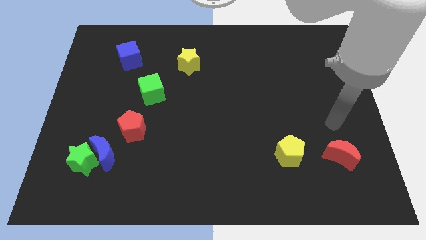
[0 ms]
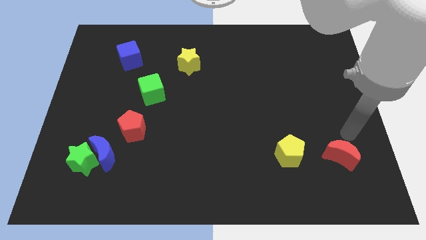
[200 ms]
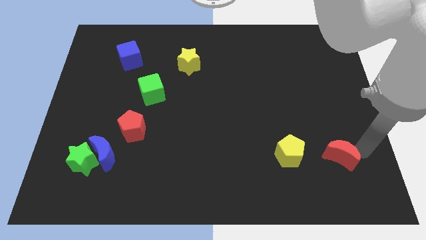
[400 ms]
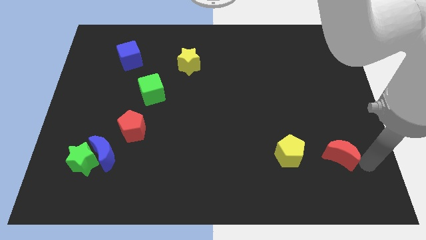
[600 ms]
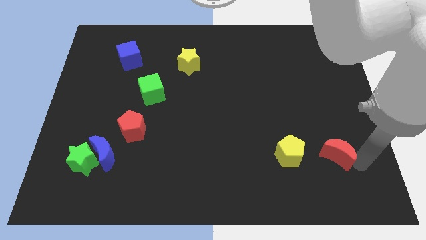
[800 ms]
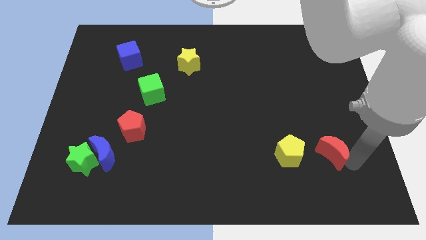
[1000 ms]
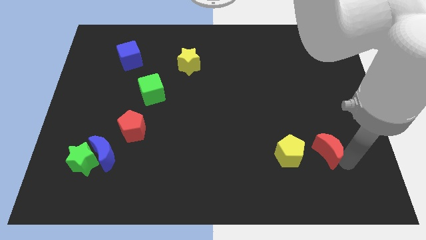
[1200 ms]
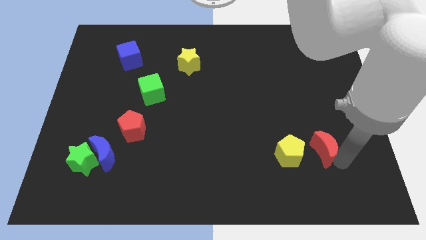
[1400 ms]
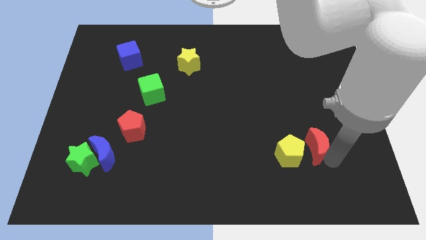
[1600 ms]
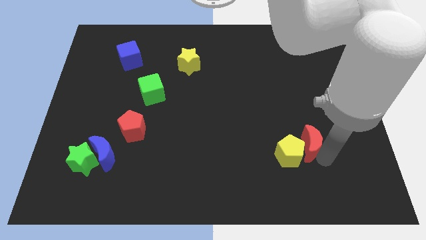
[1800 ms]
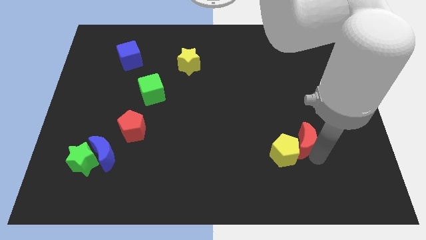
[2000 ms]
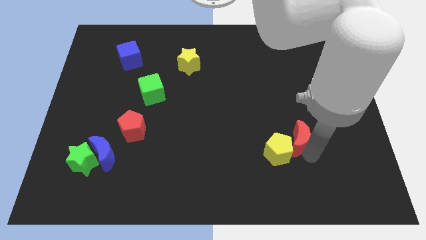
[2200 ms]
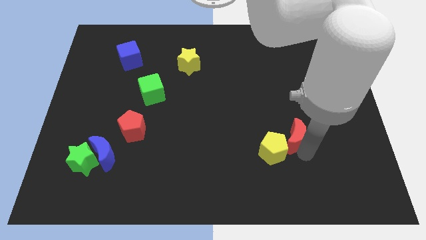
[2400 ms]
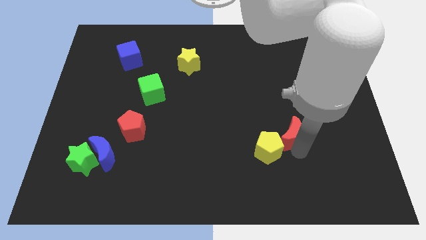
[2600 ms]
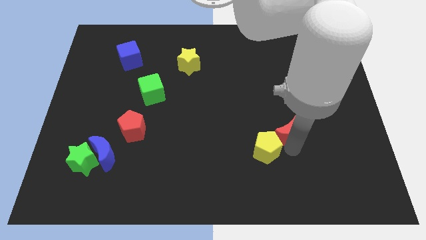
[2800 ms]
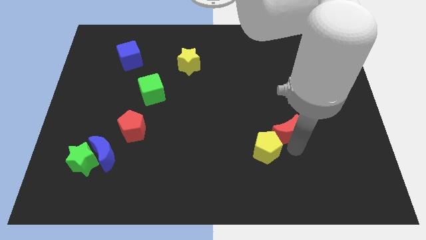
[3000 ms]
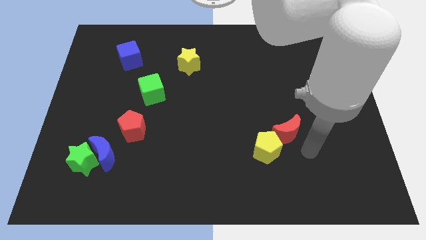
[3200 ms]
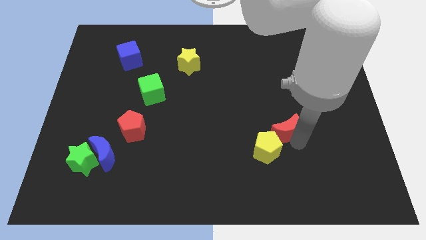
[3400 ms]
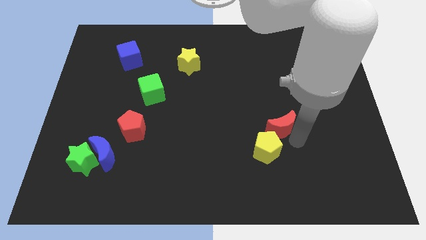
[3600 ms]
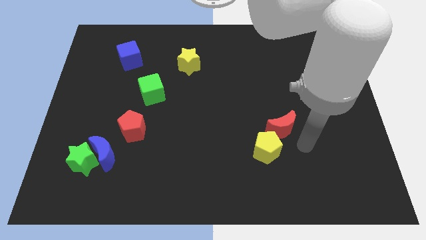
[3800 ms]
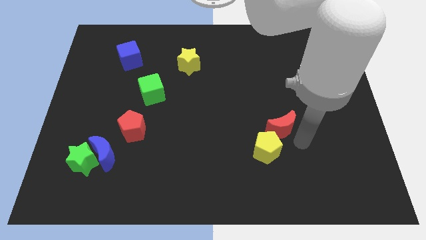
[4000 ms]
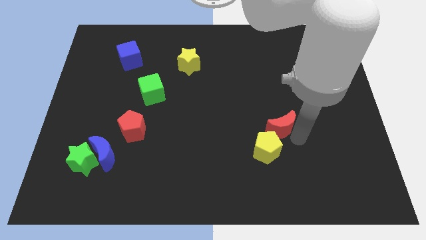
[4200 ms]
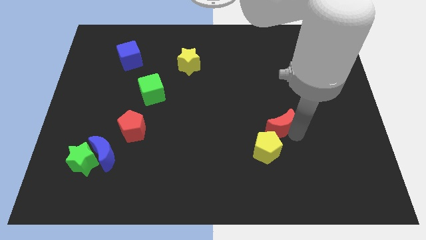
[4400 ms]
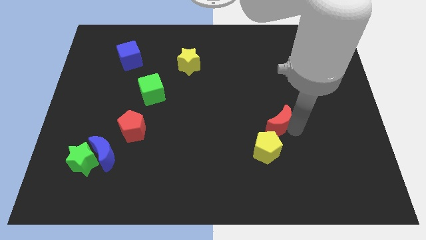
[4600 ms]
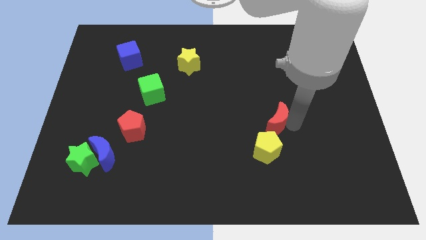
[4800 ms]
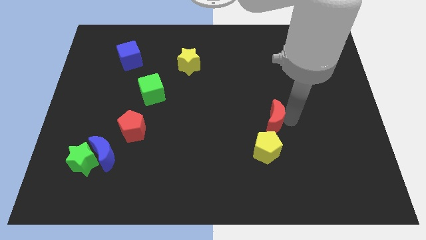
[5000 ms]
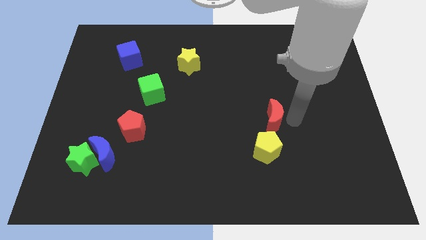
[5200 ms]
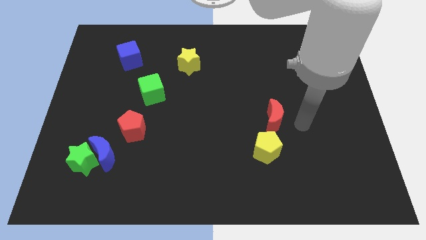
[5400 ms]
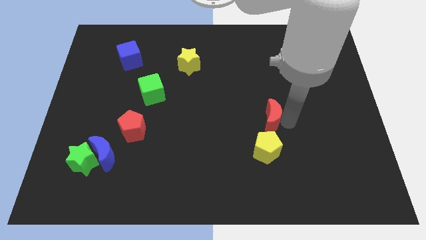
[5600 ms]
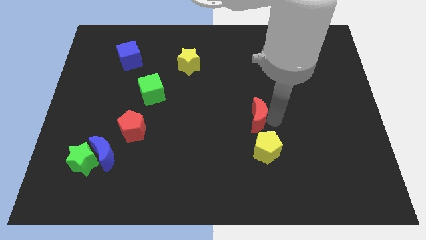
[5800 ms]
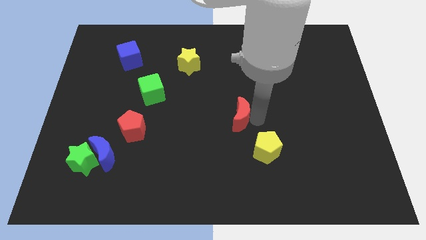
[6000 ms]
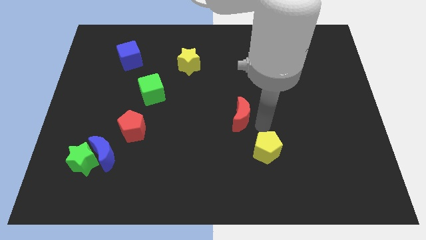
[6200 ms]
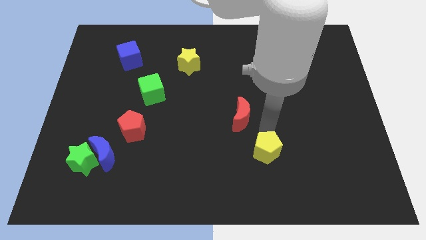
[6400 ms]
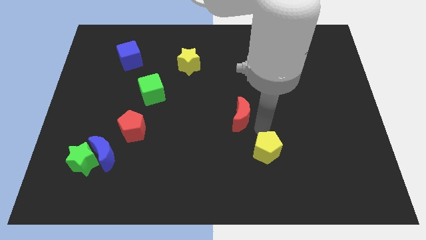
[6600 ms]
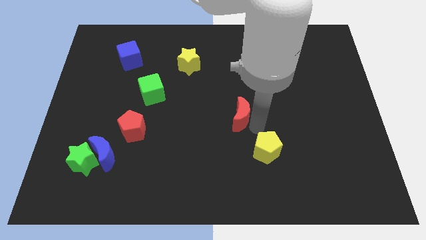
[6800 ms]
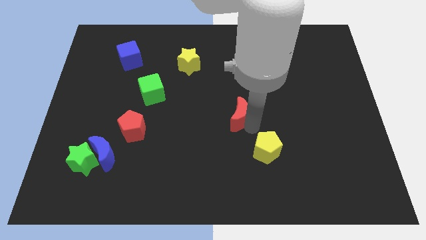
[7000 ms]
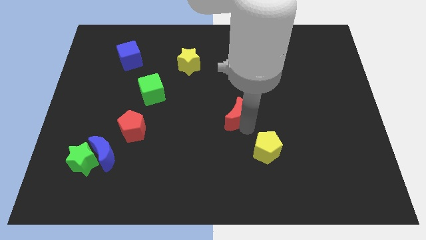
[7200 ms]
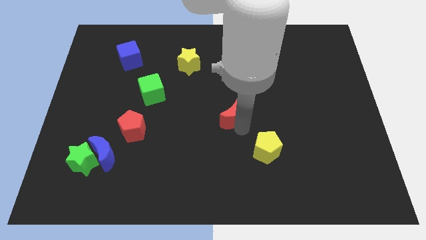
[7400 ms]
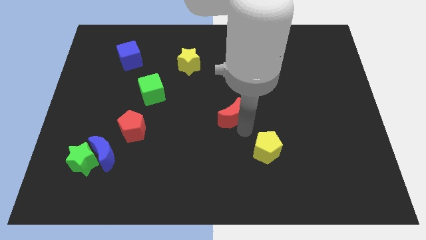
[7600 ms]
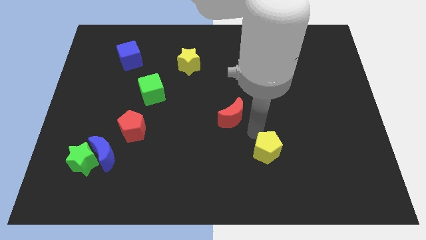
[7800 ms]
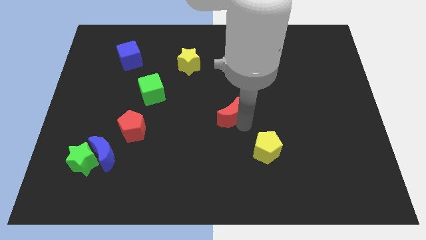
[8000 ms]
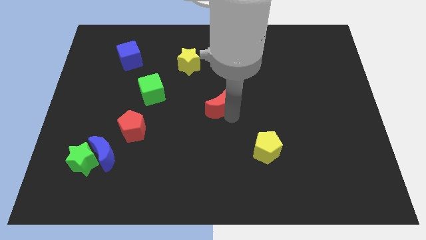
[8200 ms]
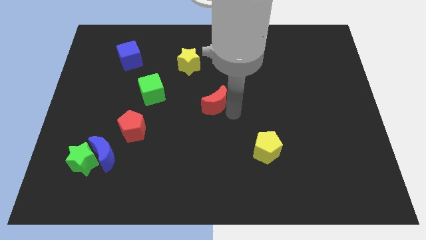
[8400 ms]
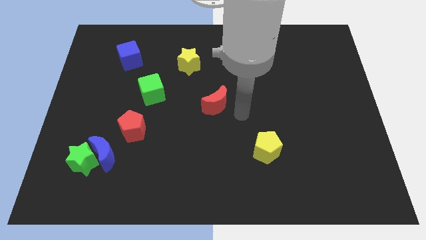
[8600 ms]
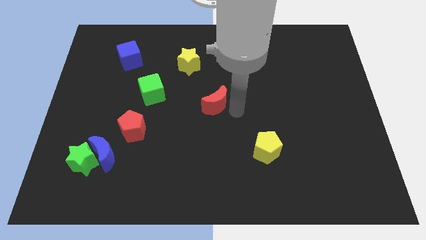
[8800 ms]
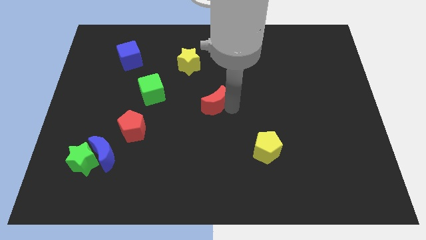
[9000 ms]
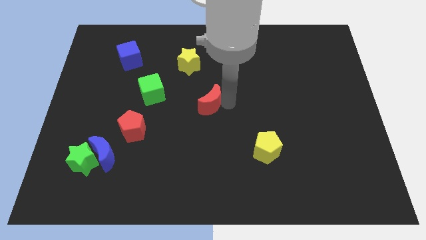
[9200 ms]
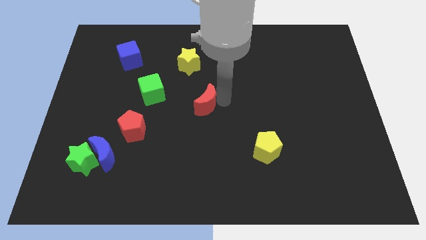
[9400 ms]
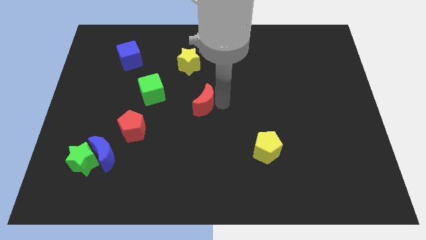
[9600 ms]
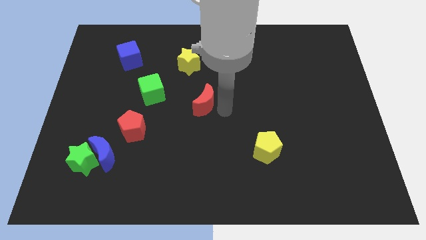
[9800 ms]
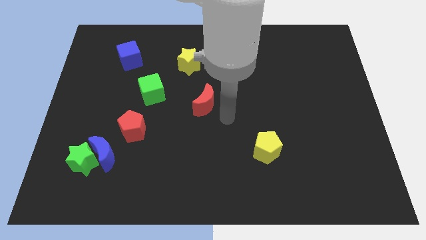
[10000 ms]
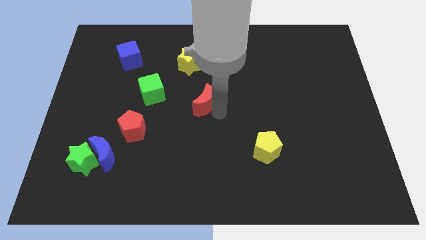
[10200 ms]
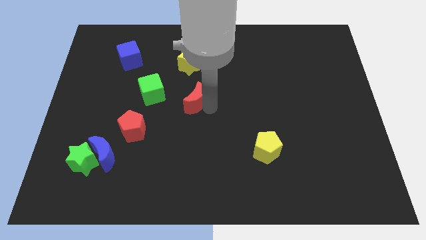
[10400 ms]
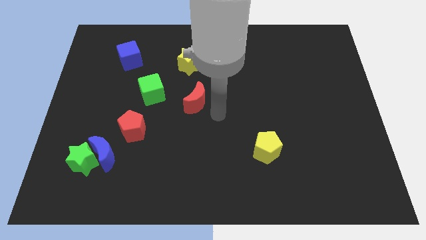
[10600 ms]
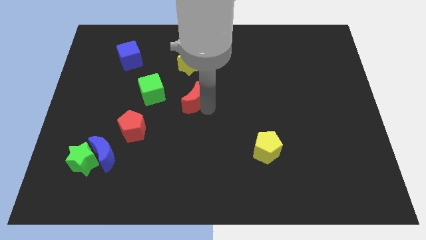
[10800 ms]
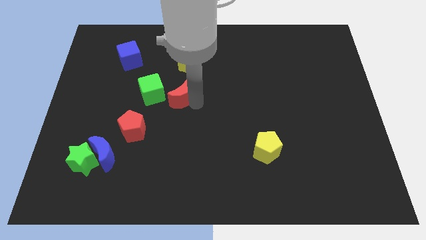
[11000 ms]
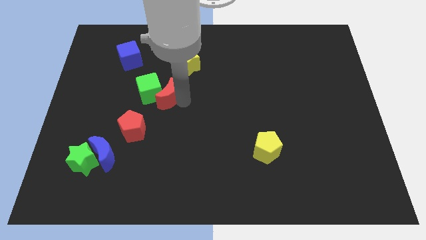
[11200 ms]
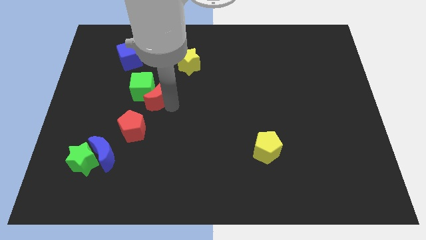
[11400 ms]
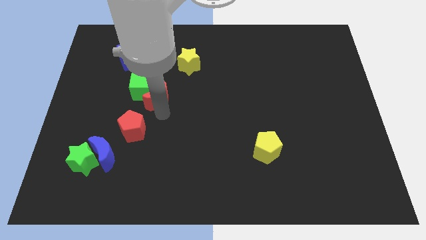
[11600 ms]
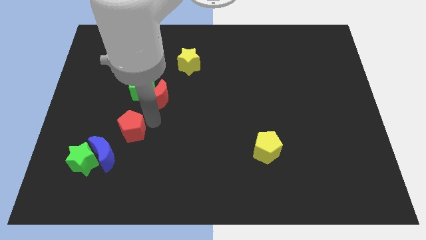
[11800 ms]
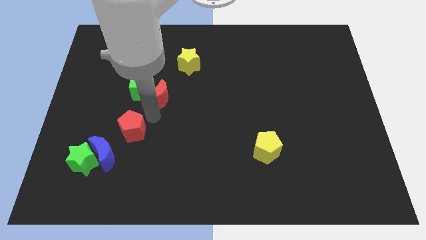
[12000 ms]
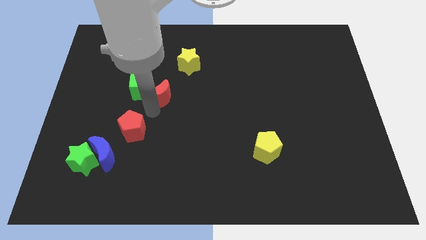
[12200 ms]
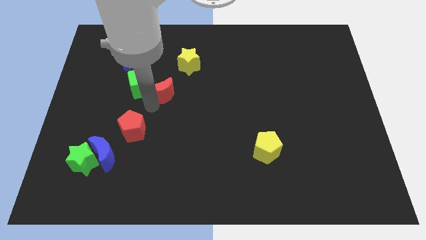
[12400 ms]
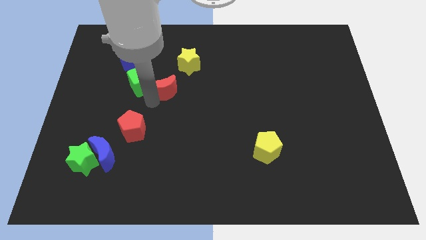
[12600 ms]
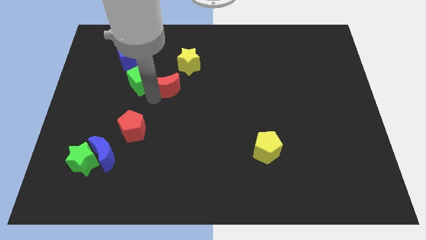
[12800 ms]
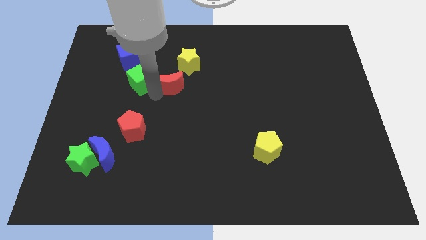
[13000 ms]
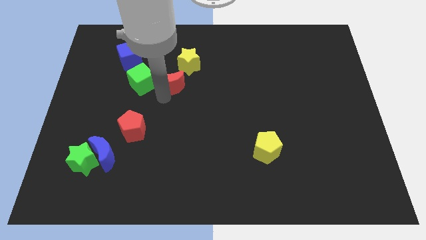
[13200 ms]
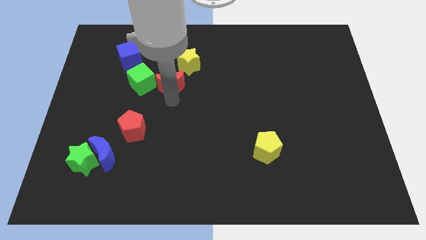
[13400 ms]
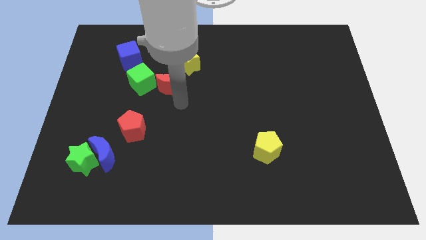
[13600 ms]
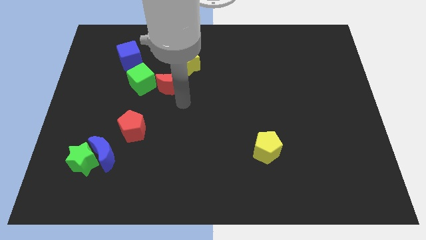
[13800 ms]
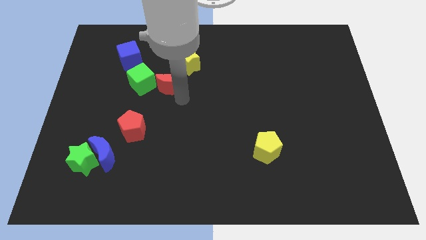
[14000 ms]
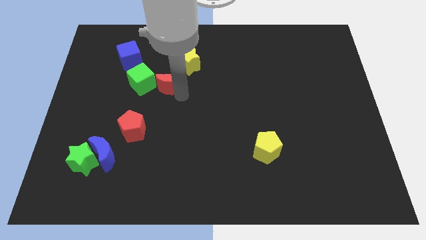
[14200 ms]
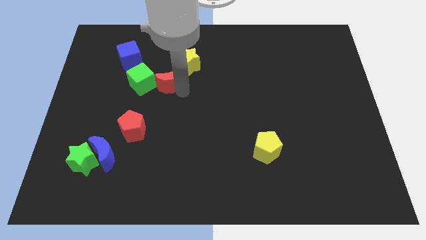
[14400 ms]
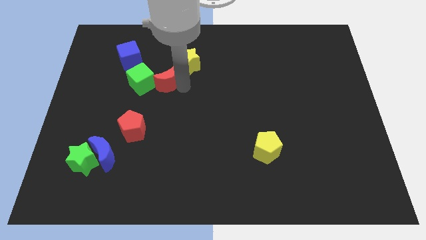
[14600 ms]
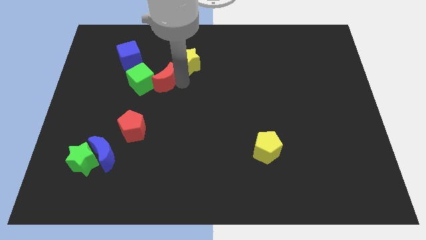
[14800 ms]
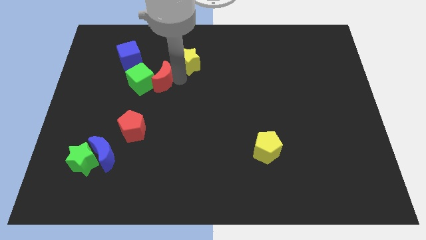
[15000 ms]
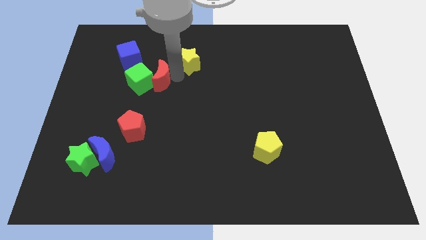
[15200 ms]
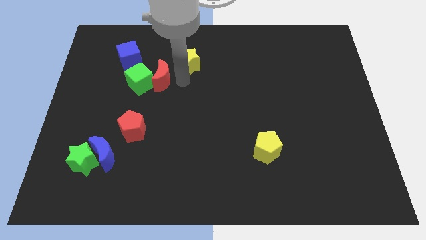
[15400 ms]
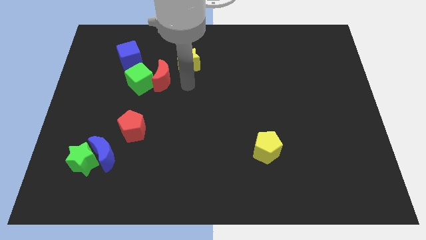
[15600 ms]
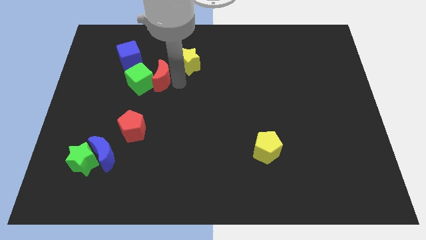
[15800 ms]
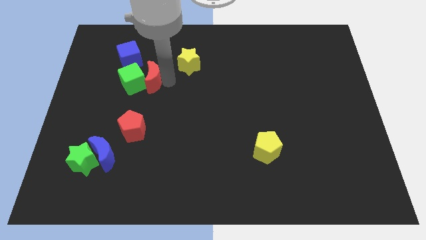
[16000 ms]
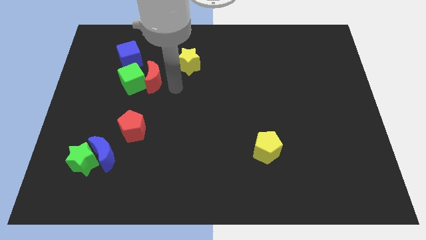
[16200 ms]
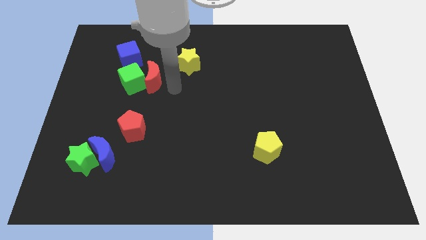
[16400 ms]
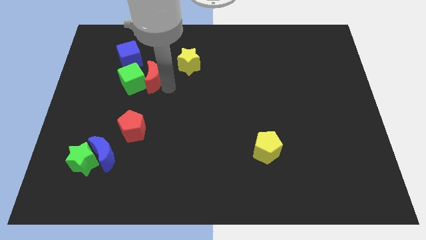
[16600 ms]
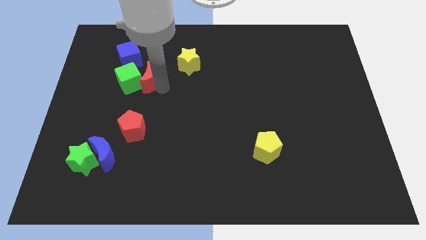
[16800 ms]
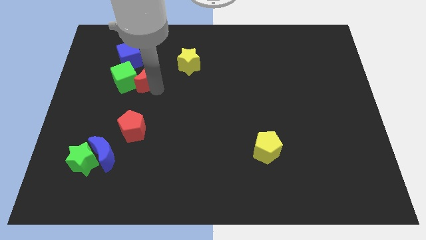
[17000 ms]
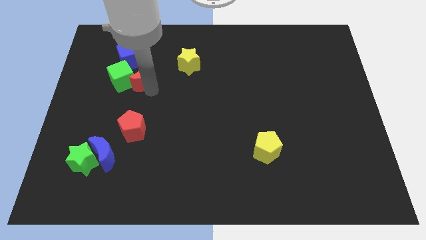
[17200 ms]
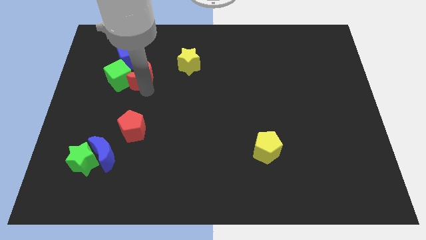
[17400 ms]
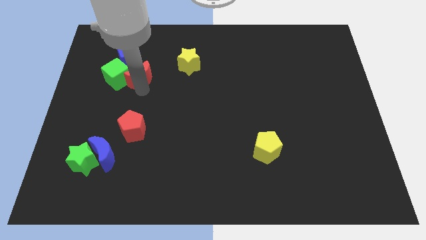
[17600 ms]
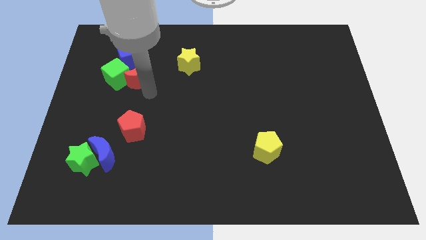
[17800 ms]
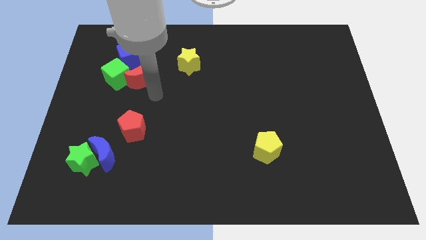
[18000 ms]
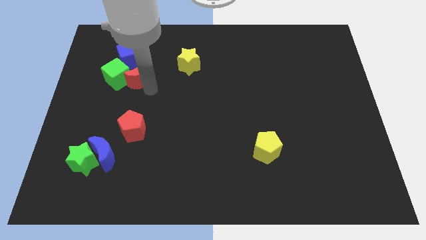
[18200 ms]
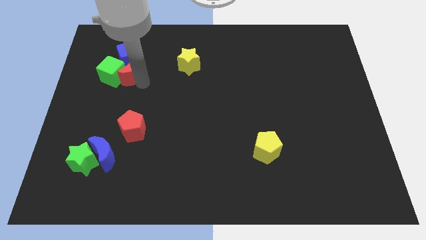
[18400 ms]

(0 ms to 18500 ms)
slide the red moon towards the blue cube
